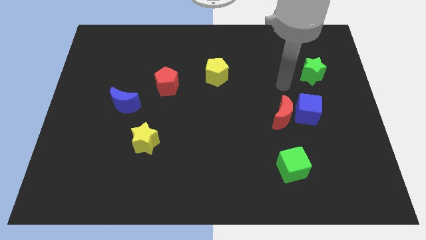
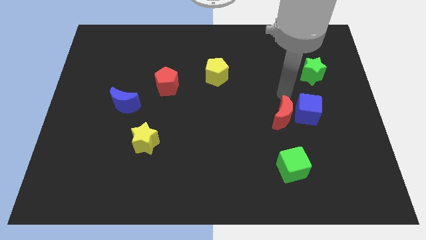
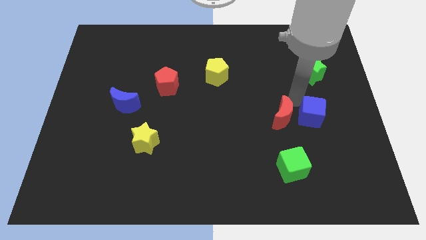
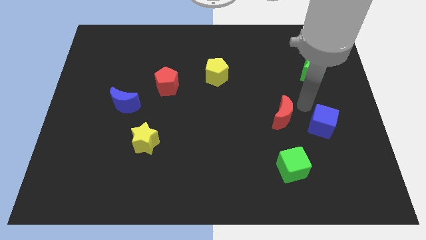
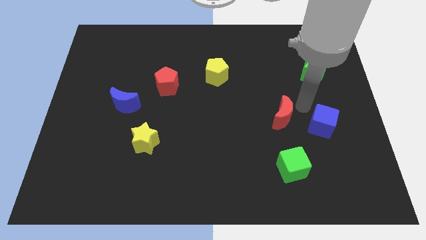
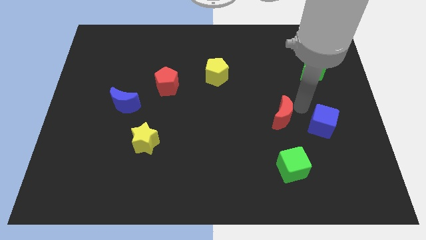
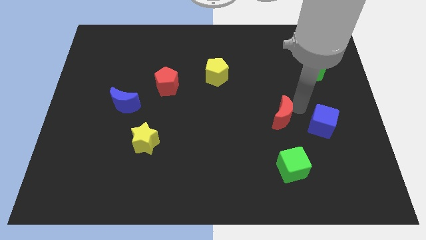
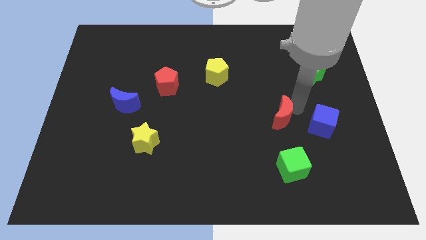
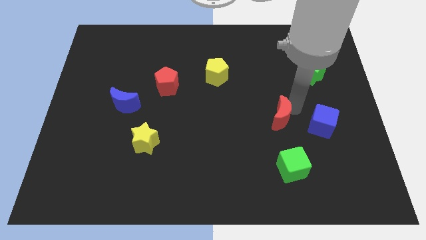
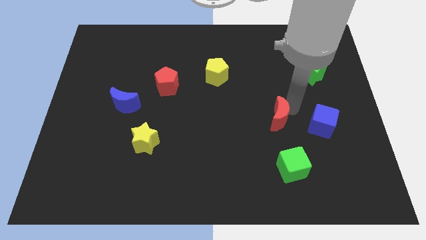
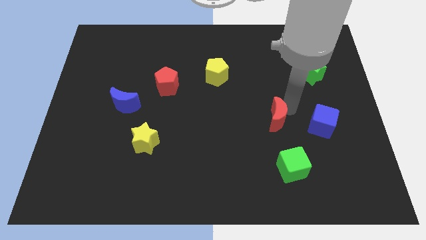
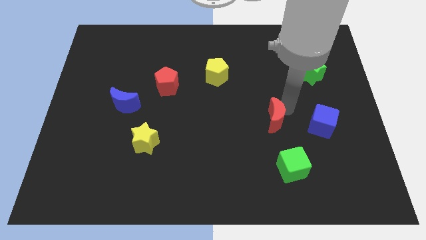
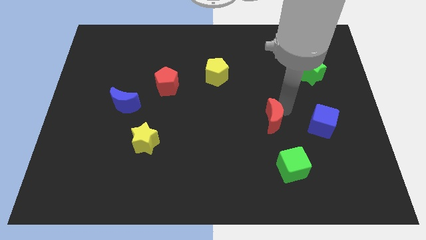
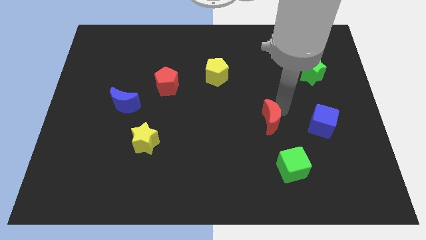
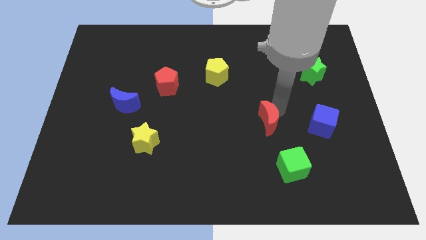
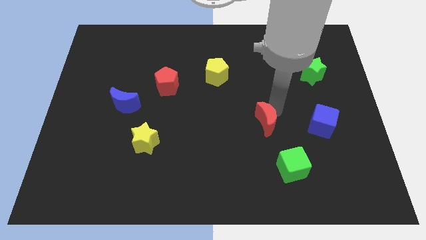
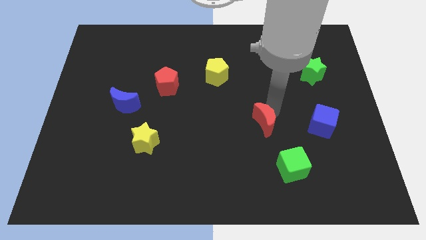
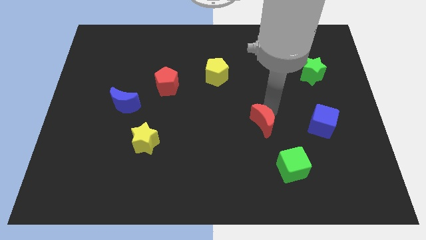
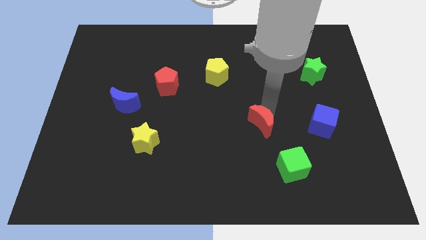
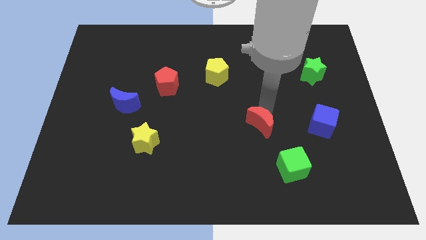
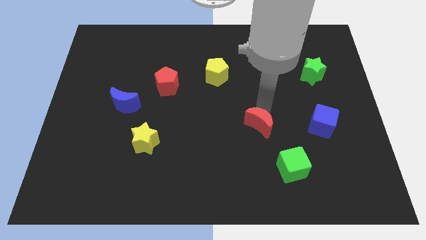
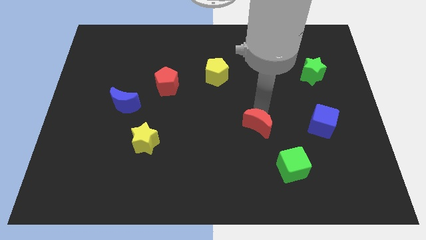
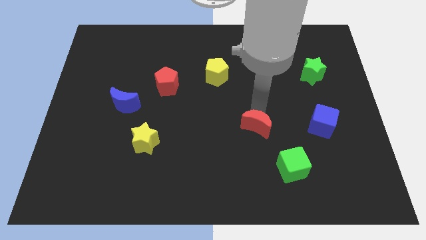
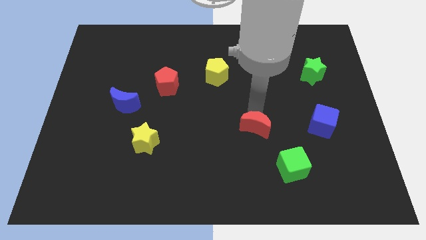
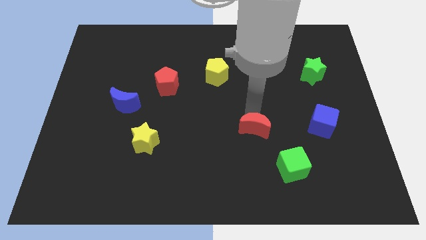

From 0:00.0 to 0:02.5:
slightly push the red moon down and left diagonally

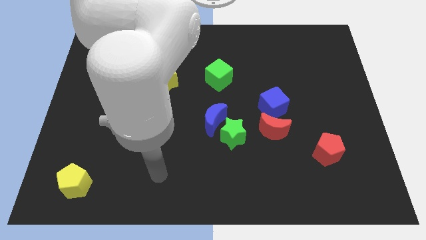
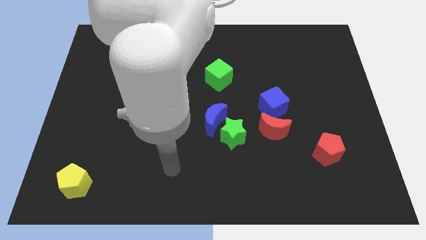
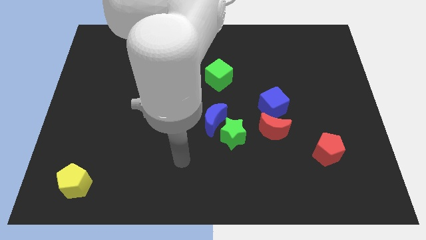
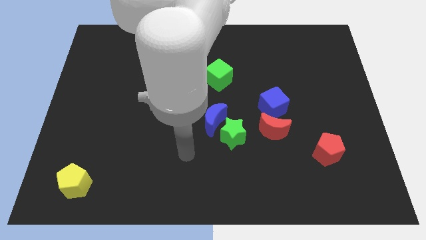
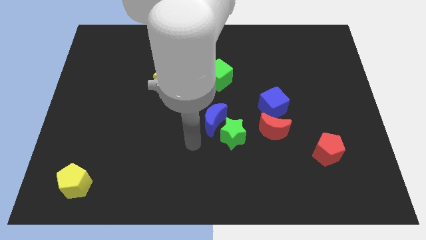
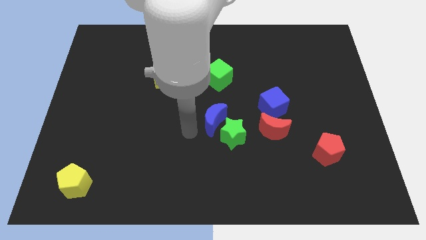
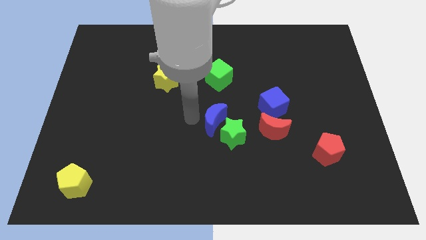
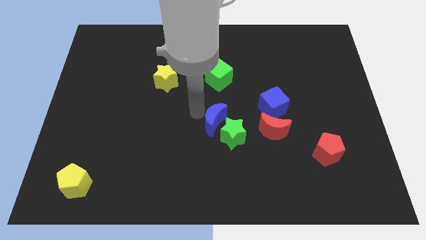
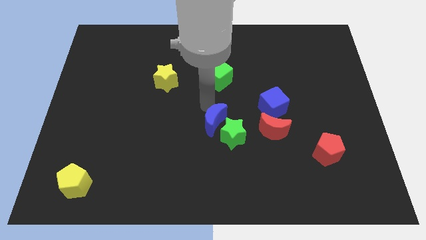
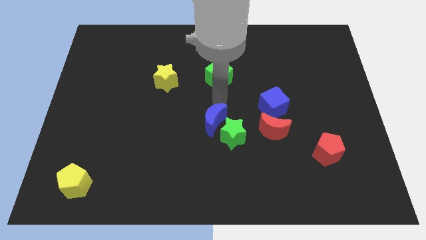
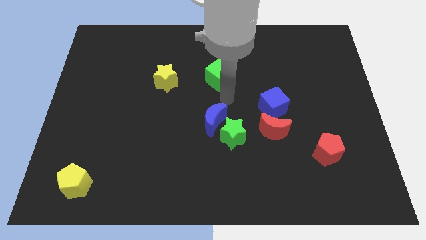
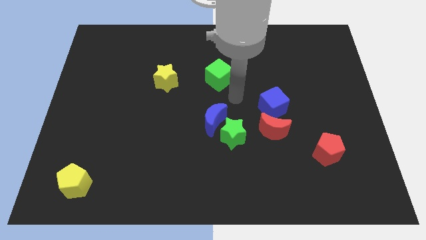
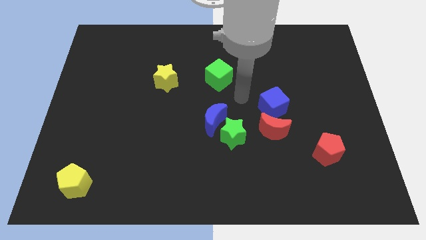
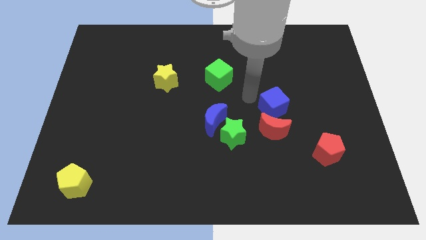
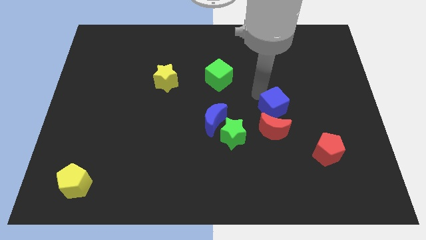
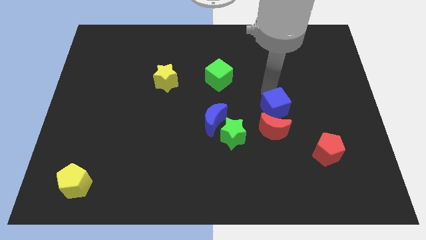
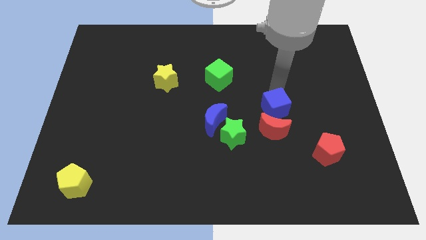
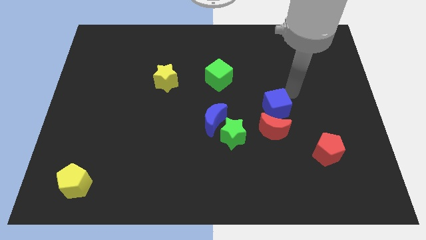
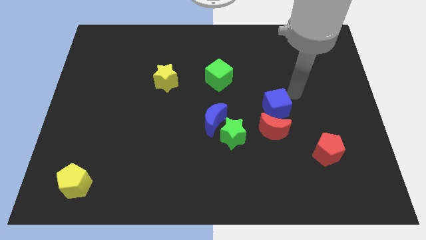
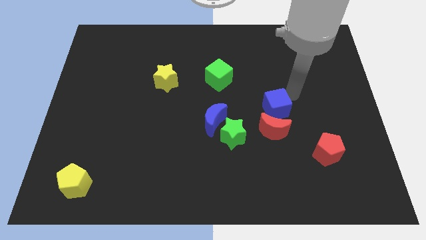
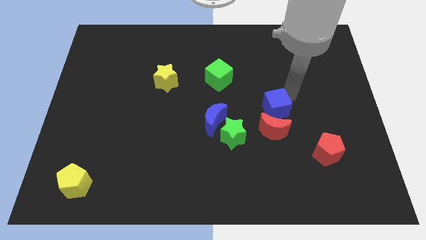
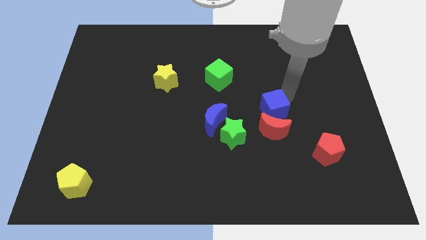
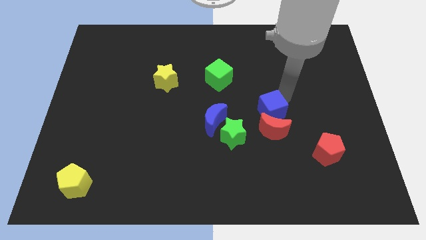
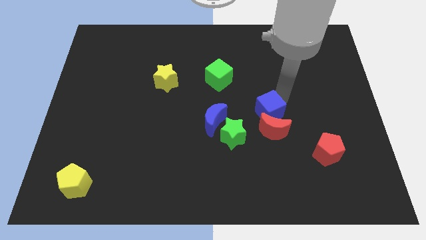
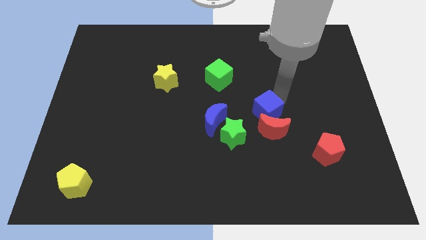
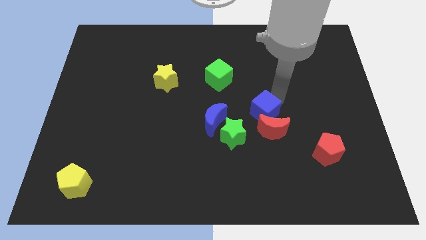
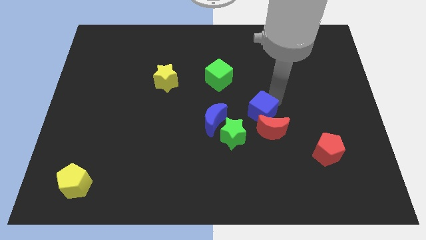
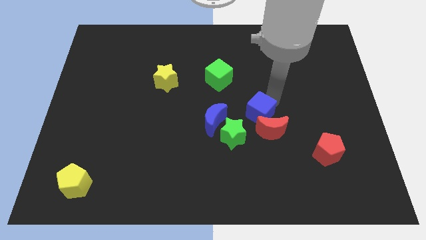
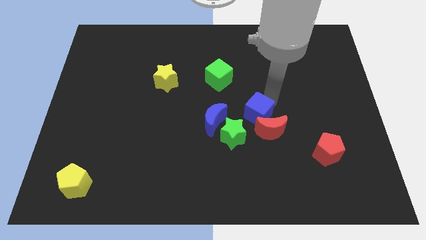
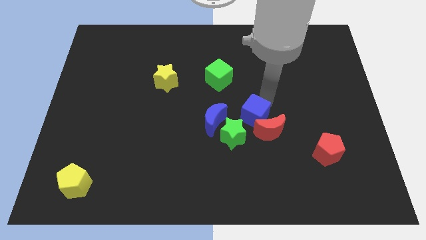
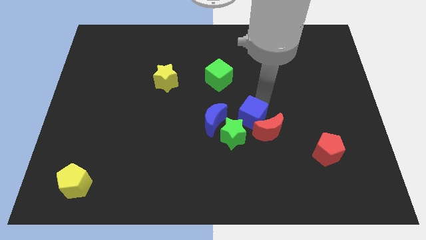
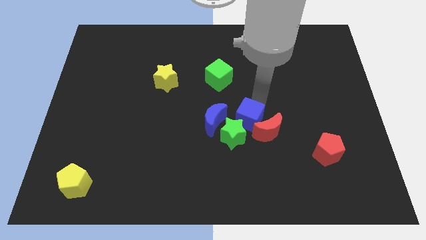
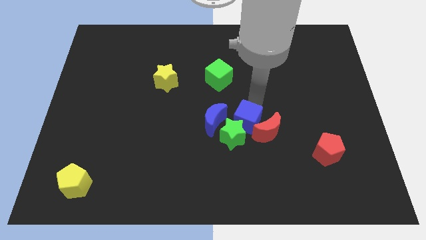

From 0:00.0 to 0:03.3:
push the blue cube downwards and then left a little

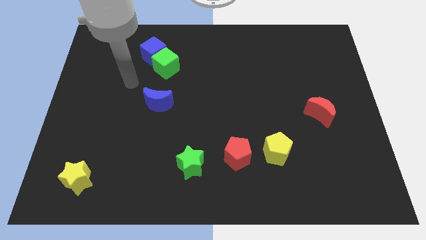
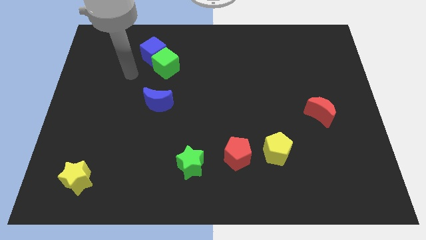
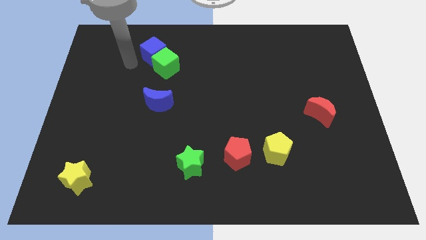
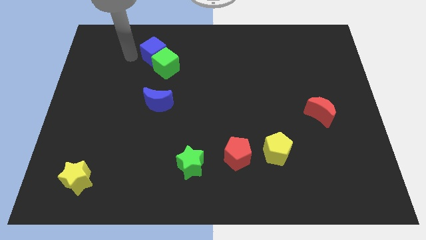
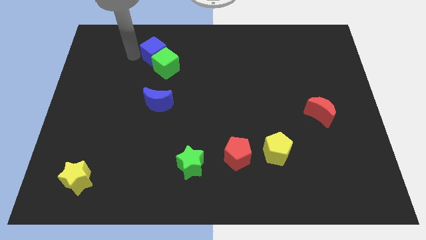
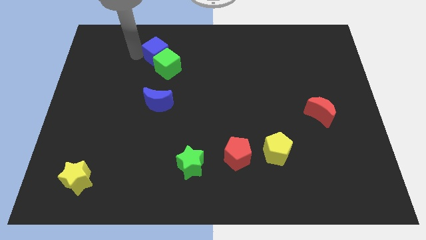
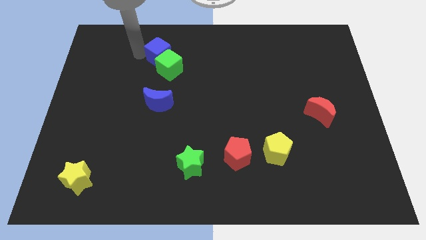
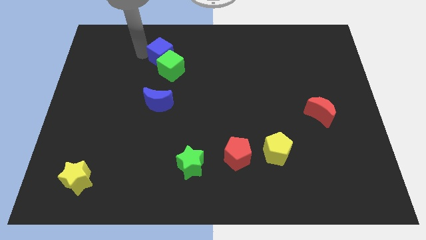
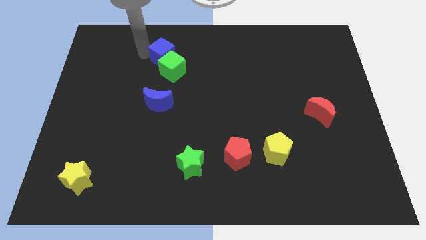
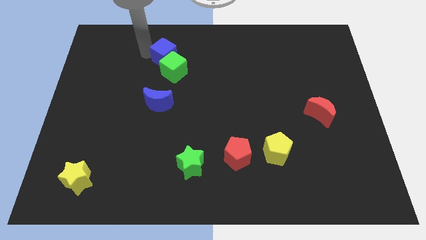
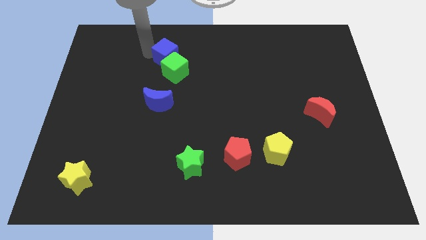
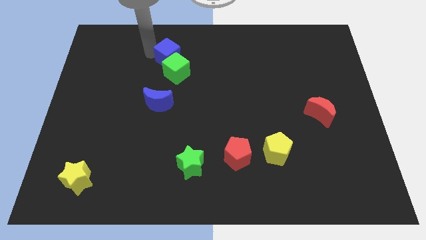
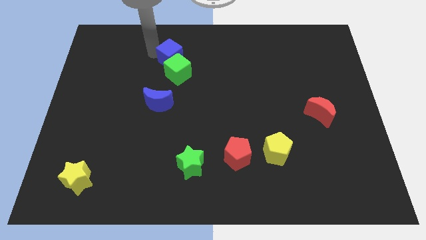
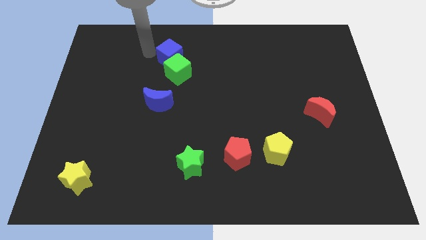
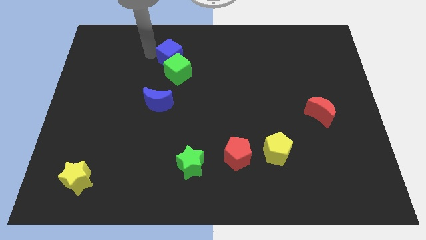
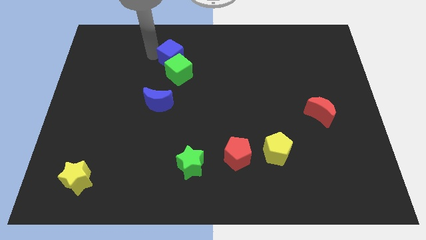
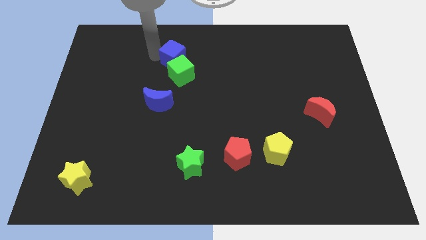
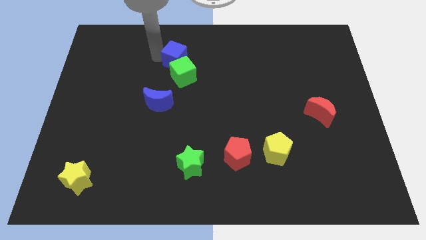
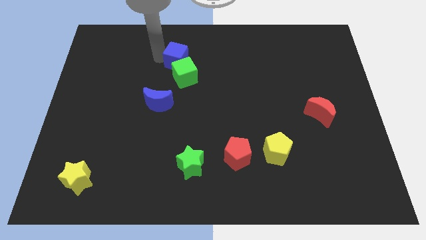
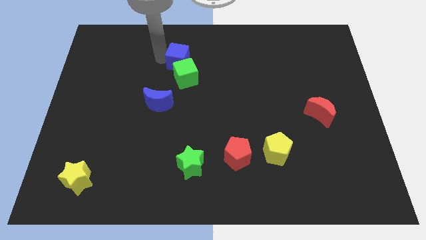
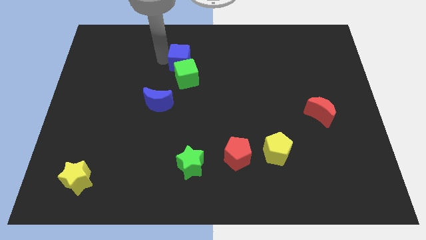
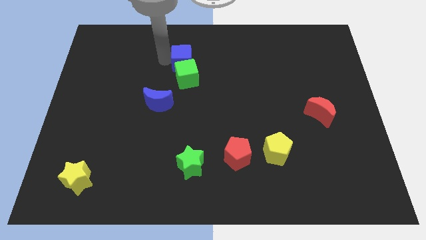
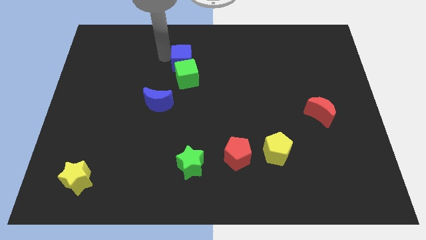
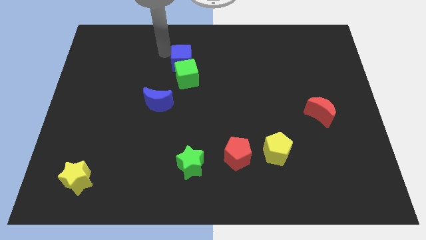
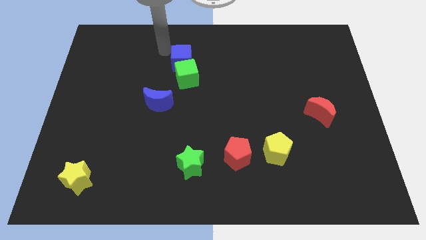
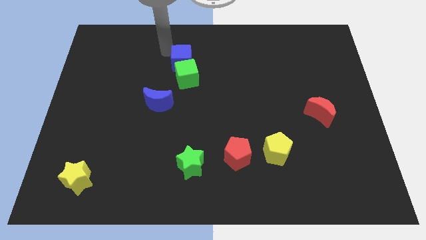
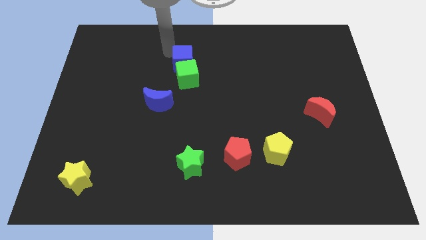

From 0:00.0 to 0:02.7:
slide the blue cube down and to the right a little bit
